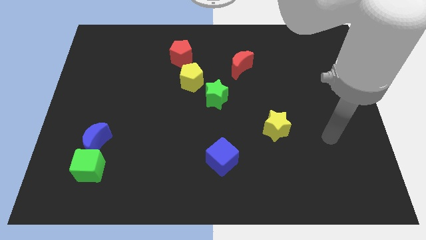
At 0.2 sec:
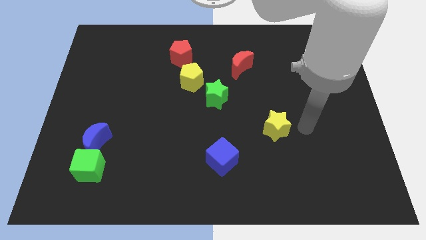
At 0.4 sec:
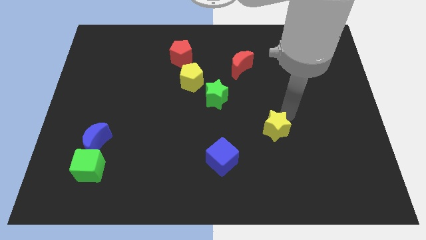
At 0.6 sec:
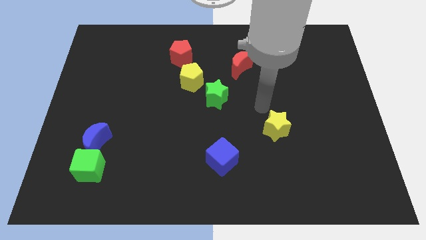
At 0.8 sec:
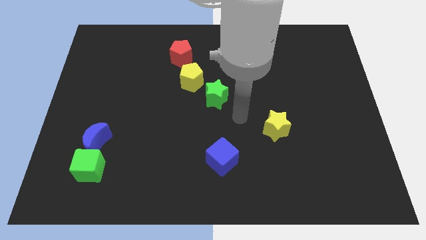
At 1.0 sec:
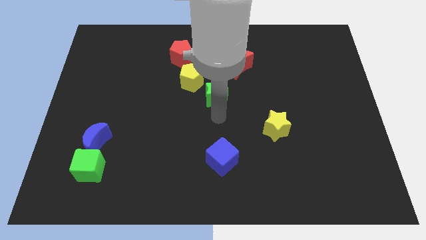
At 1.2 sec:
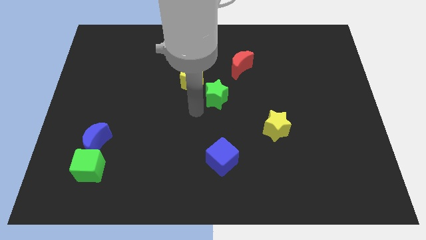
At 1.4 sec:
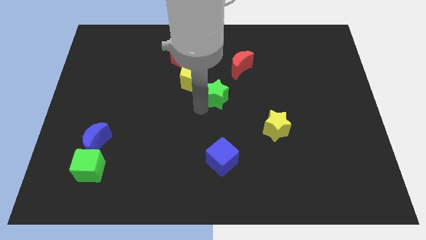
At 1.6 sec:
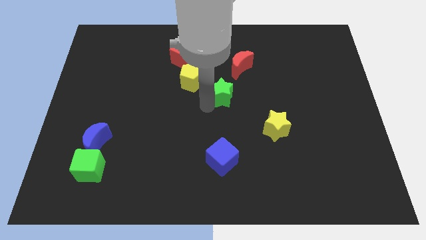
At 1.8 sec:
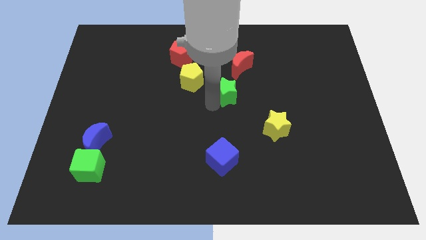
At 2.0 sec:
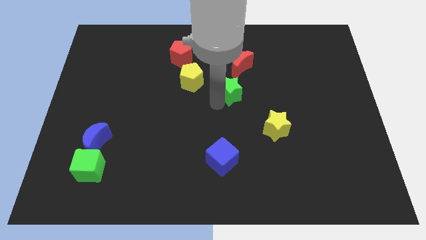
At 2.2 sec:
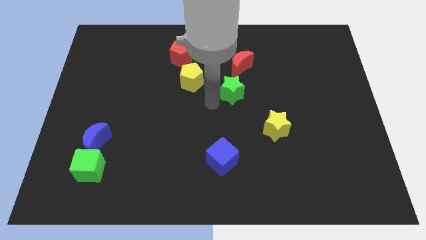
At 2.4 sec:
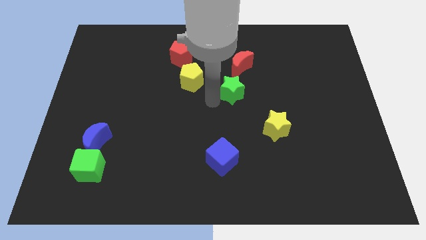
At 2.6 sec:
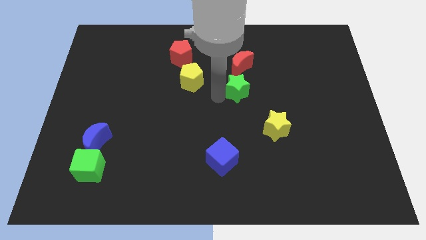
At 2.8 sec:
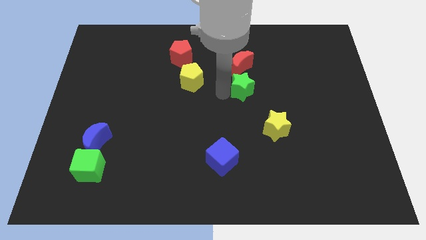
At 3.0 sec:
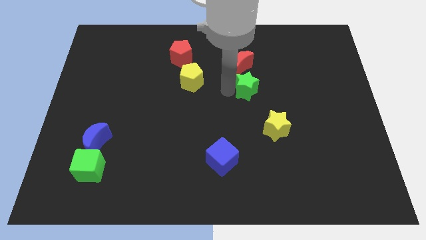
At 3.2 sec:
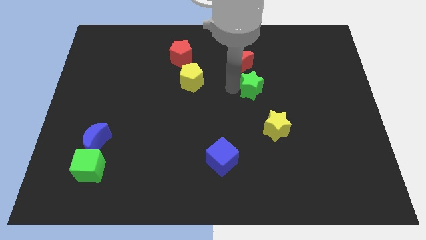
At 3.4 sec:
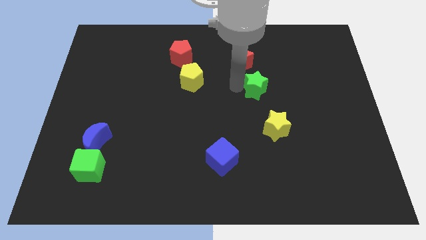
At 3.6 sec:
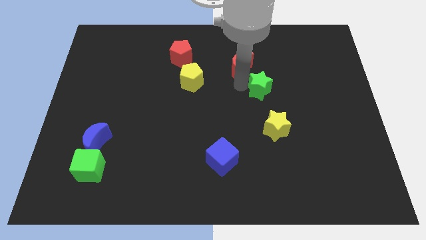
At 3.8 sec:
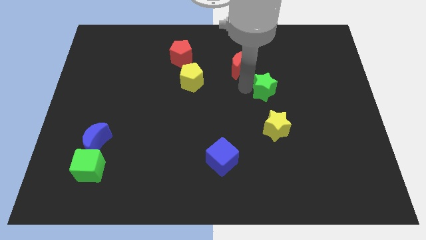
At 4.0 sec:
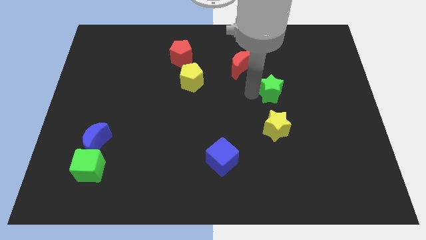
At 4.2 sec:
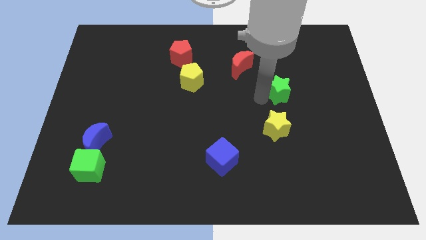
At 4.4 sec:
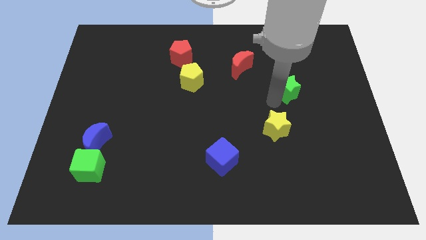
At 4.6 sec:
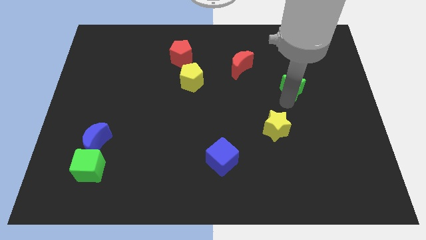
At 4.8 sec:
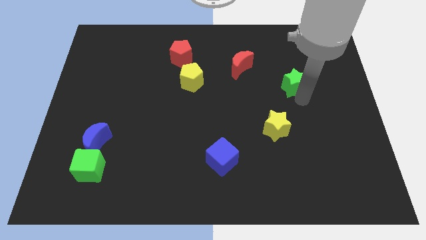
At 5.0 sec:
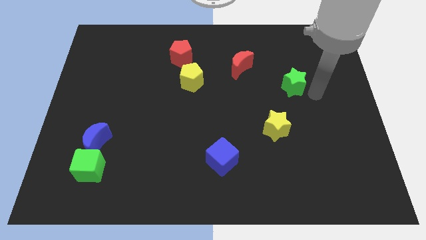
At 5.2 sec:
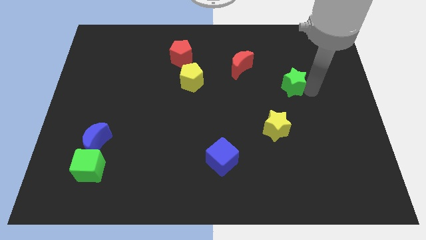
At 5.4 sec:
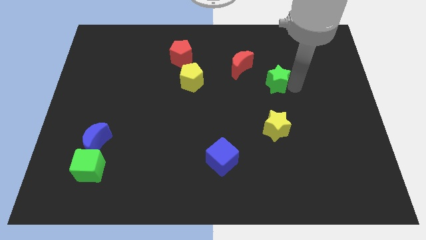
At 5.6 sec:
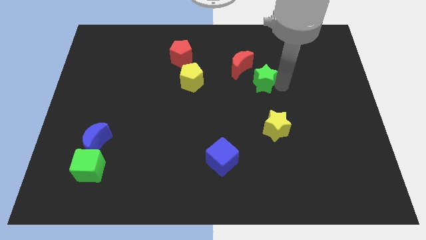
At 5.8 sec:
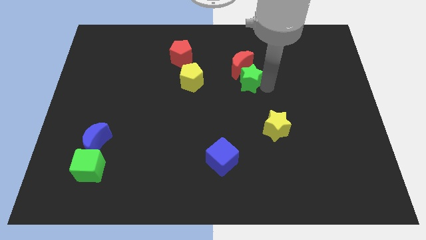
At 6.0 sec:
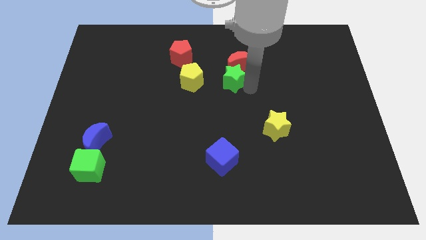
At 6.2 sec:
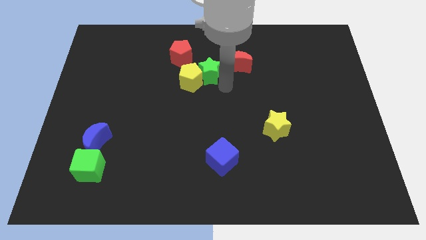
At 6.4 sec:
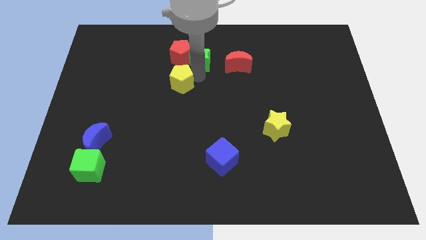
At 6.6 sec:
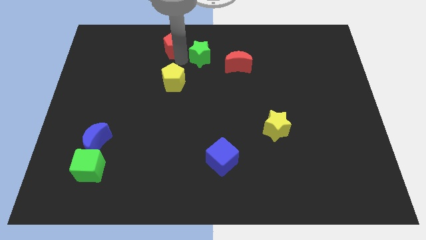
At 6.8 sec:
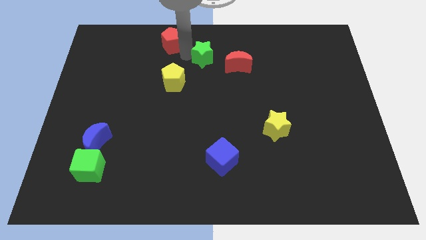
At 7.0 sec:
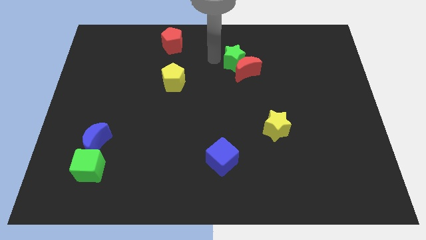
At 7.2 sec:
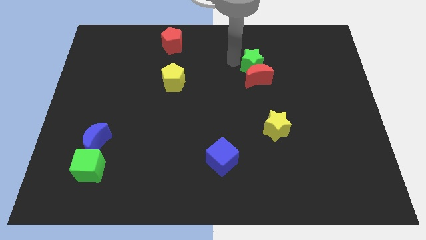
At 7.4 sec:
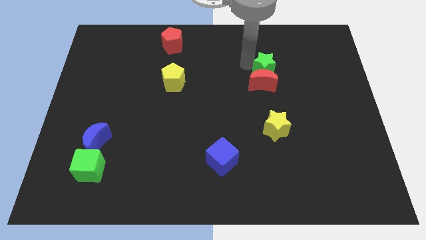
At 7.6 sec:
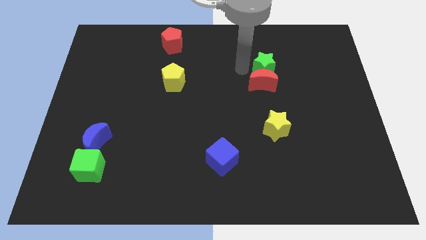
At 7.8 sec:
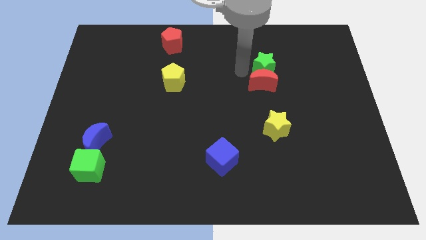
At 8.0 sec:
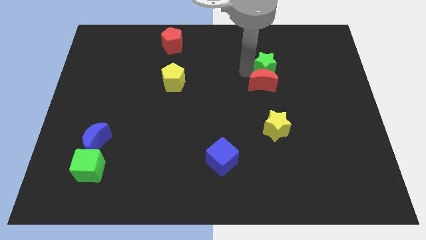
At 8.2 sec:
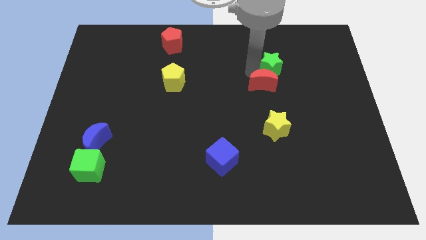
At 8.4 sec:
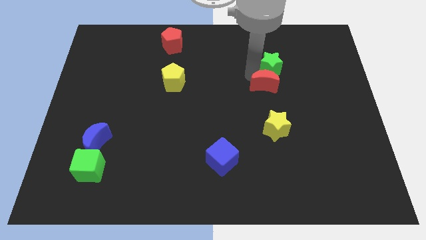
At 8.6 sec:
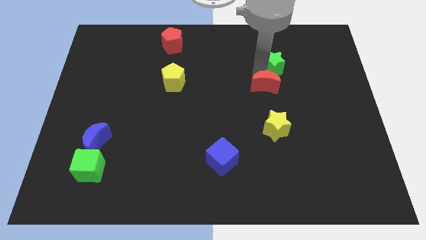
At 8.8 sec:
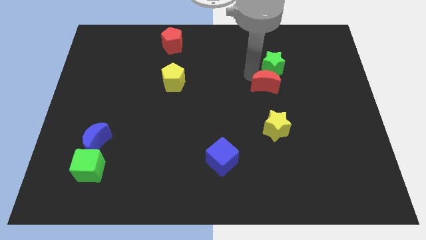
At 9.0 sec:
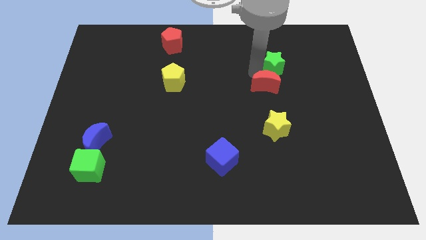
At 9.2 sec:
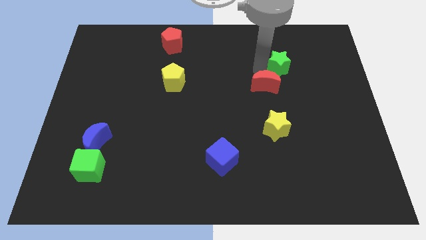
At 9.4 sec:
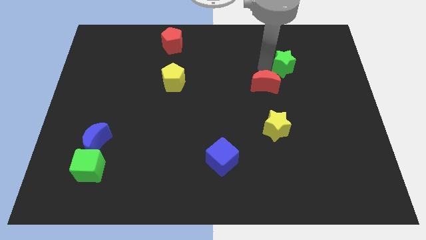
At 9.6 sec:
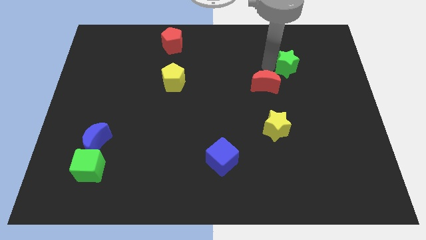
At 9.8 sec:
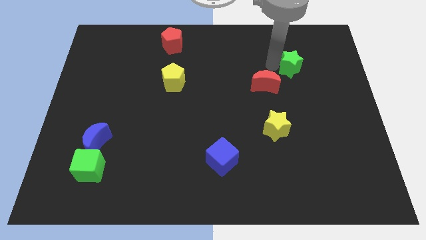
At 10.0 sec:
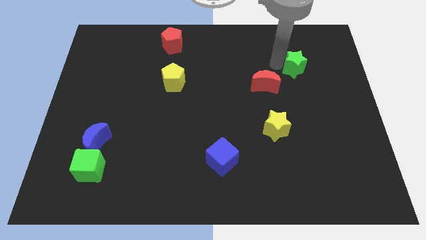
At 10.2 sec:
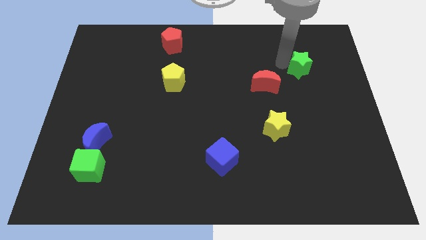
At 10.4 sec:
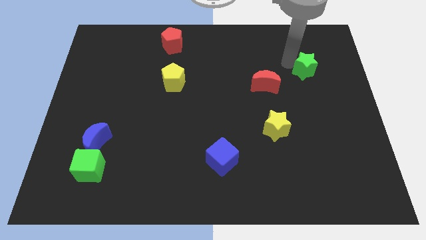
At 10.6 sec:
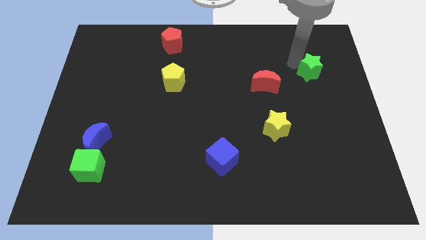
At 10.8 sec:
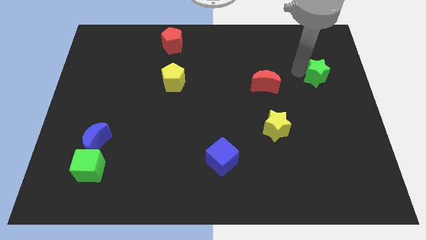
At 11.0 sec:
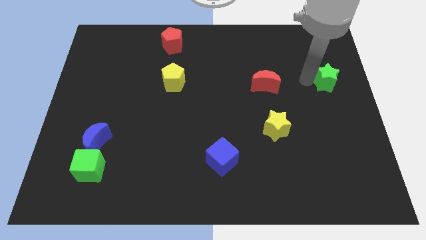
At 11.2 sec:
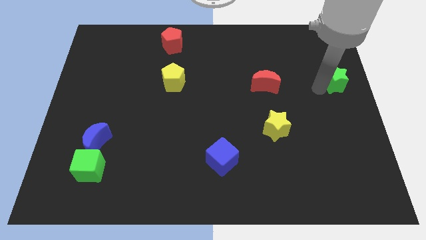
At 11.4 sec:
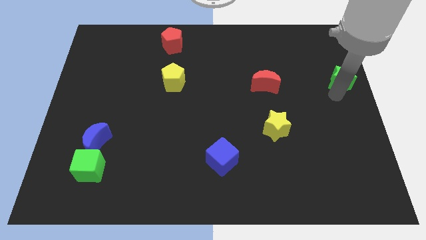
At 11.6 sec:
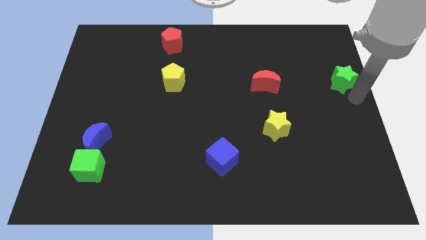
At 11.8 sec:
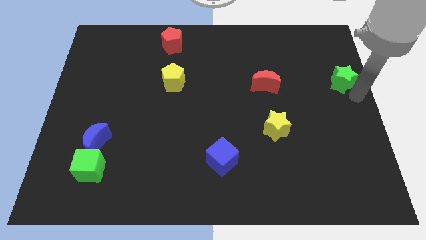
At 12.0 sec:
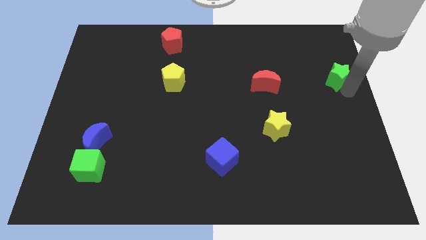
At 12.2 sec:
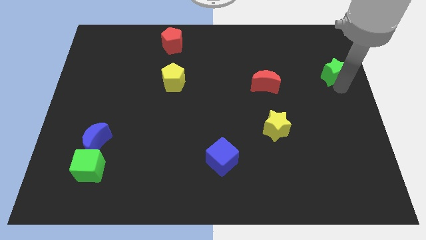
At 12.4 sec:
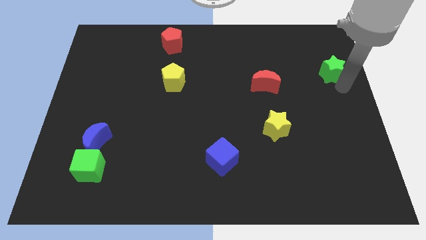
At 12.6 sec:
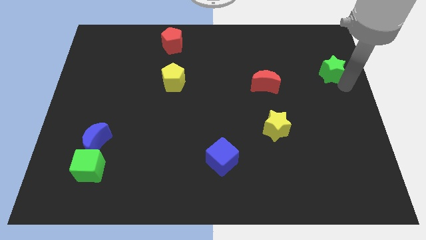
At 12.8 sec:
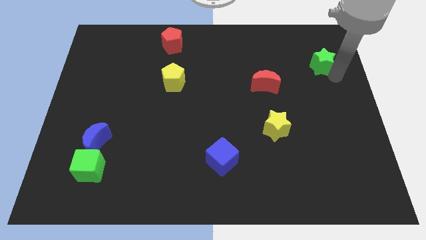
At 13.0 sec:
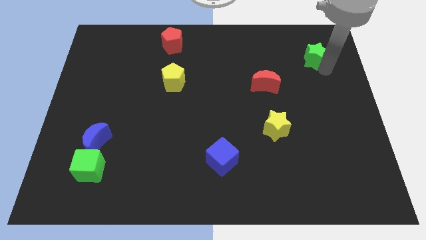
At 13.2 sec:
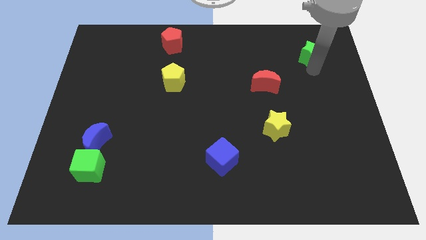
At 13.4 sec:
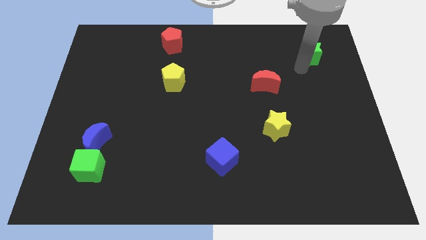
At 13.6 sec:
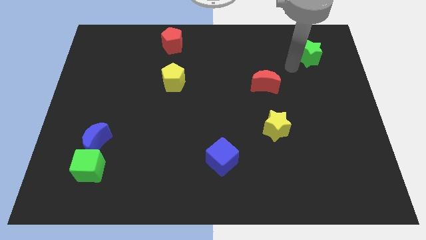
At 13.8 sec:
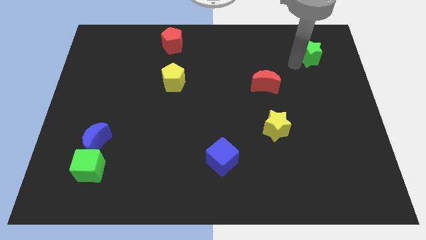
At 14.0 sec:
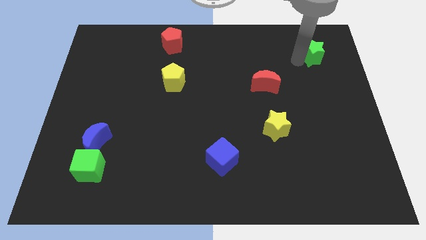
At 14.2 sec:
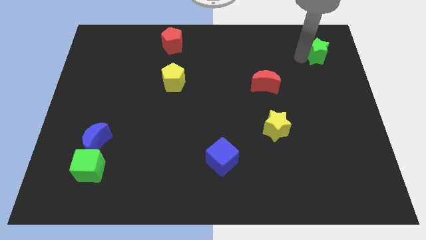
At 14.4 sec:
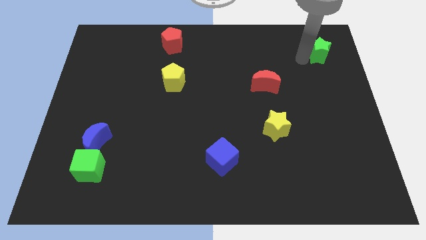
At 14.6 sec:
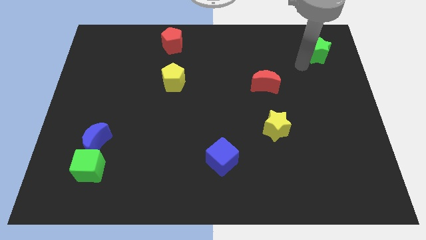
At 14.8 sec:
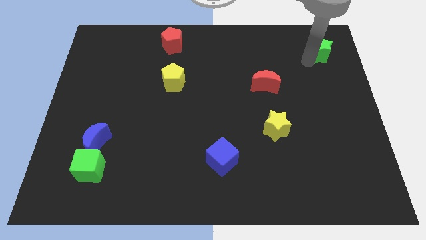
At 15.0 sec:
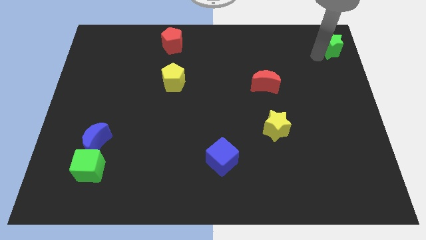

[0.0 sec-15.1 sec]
put the green star to the top right
